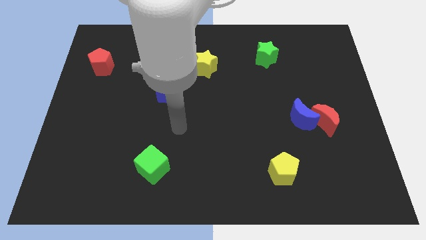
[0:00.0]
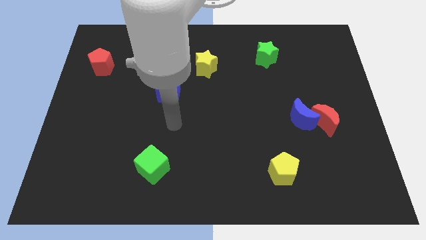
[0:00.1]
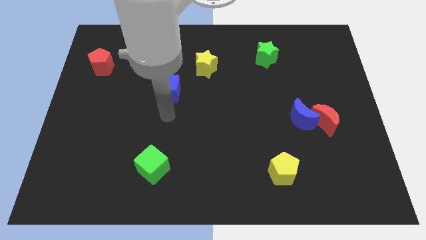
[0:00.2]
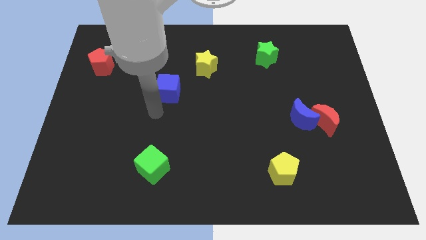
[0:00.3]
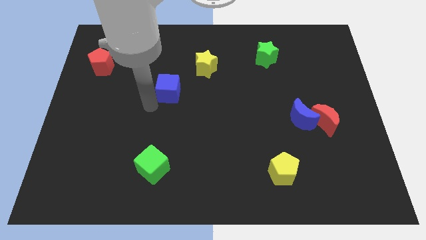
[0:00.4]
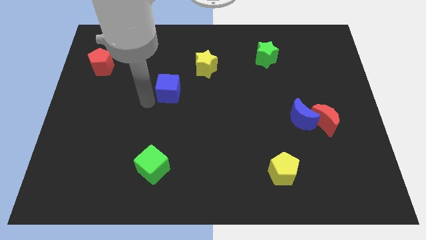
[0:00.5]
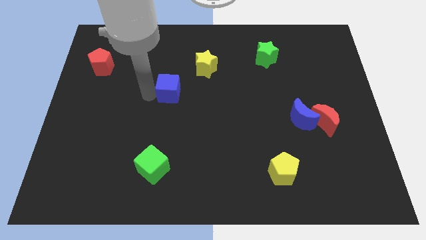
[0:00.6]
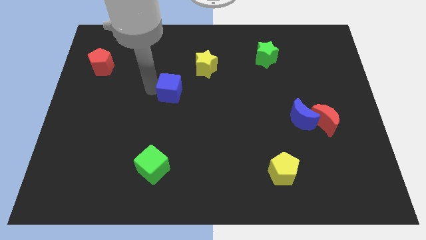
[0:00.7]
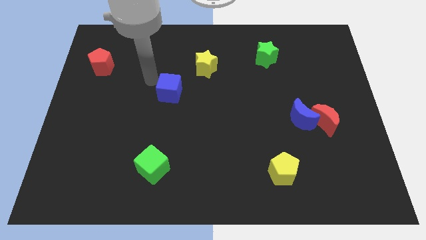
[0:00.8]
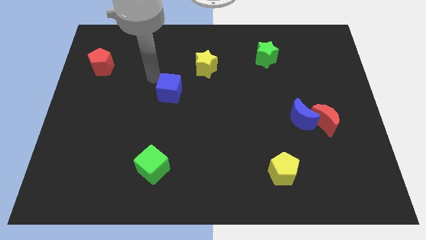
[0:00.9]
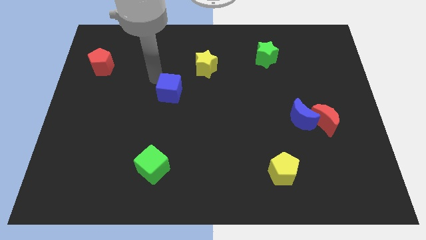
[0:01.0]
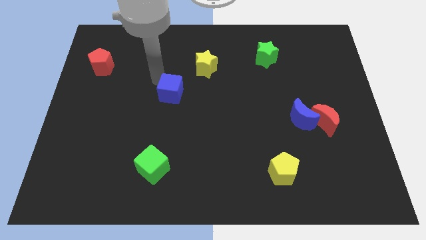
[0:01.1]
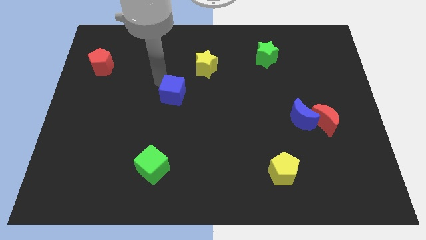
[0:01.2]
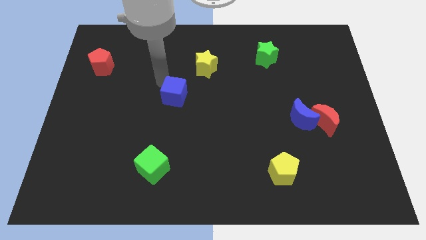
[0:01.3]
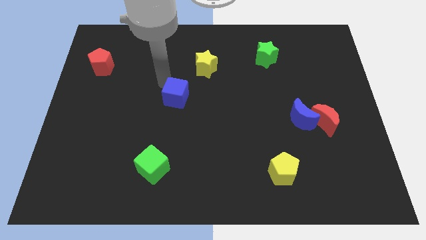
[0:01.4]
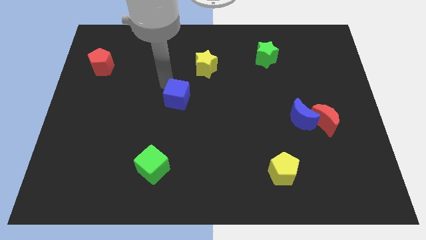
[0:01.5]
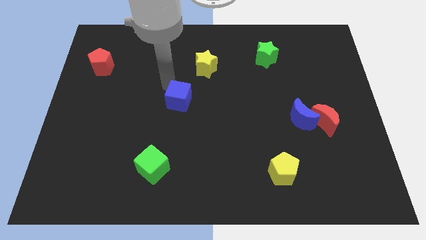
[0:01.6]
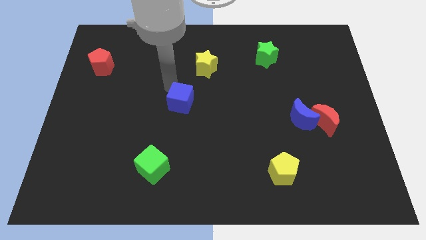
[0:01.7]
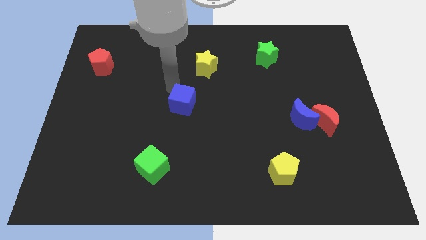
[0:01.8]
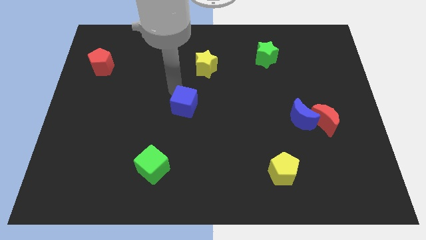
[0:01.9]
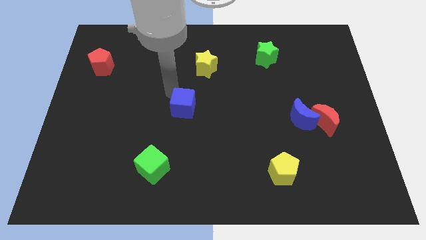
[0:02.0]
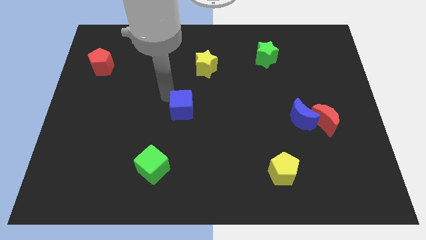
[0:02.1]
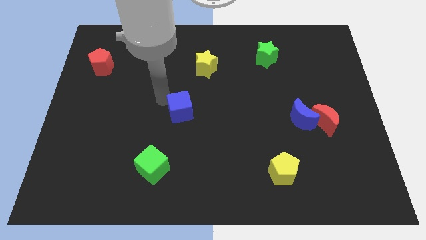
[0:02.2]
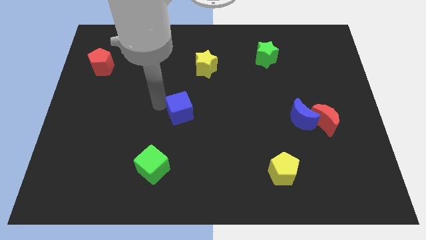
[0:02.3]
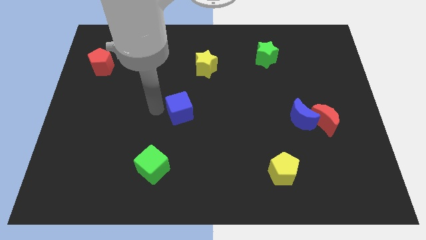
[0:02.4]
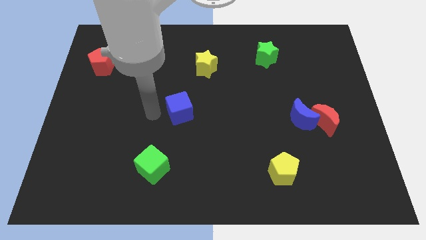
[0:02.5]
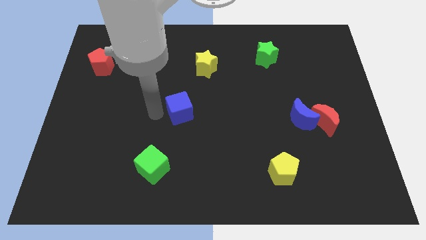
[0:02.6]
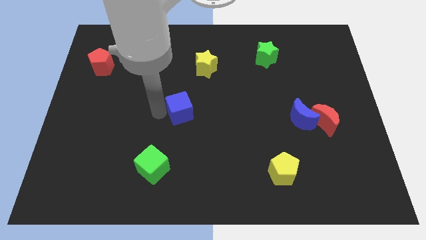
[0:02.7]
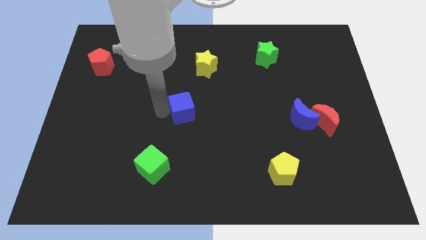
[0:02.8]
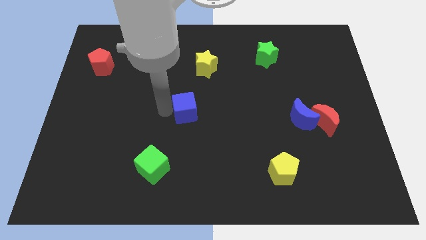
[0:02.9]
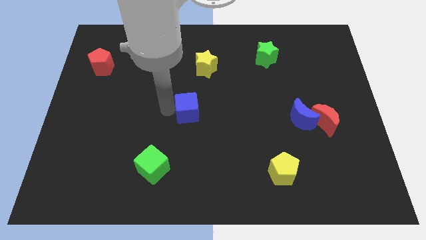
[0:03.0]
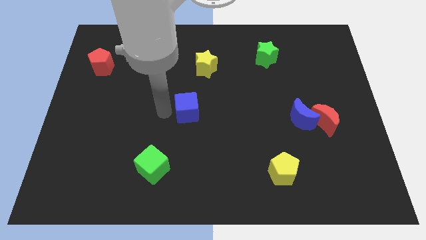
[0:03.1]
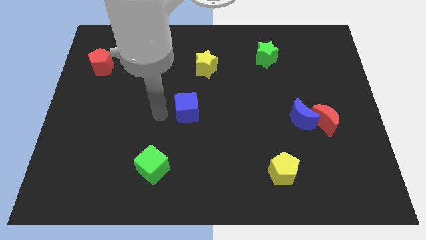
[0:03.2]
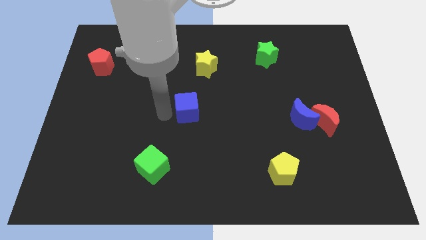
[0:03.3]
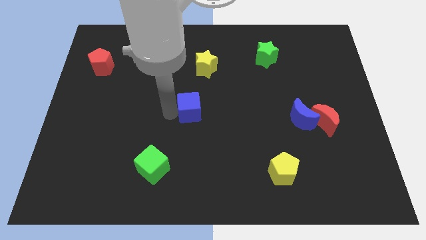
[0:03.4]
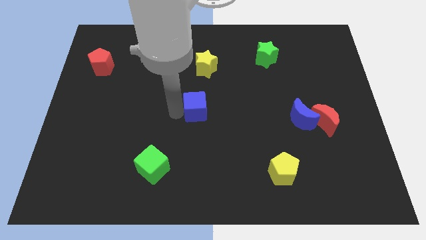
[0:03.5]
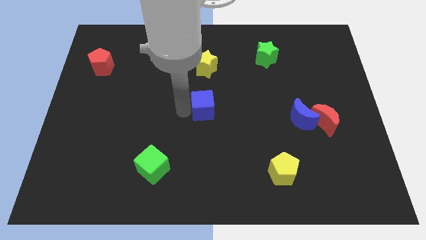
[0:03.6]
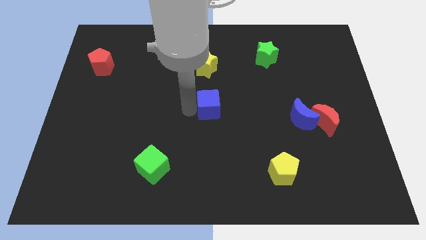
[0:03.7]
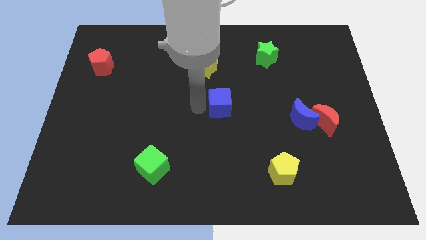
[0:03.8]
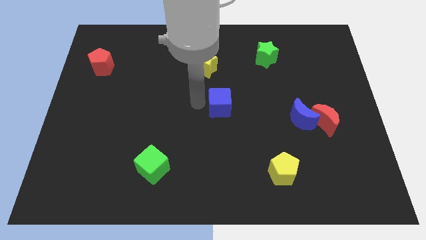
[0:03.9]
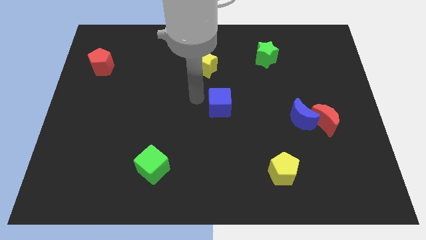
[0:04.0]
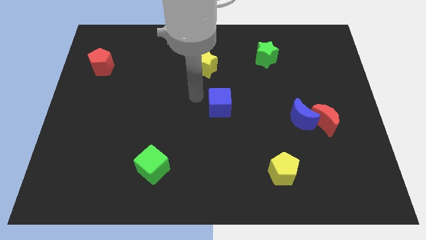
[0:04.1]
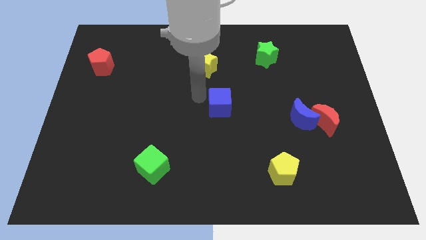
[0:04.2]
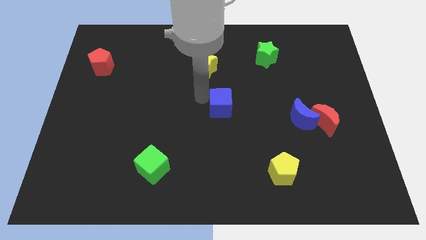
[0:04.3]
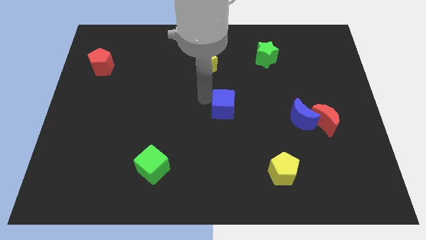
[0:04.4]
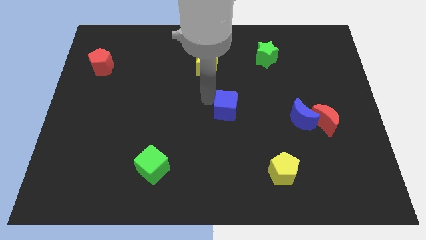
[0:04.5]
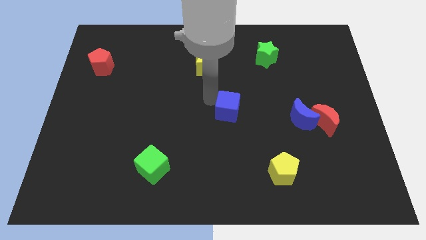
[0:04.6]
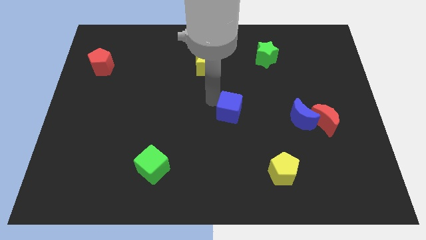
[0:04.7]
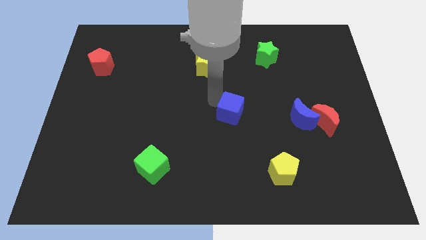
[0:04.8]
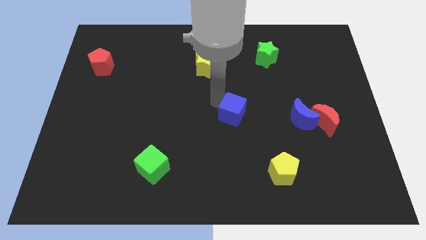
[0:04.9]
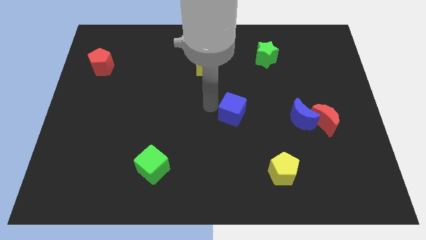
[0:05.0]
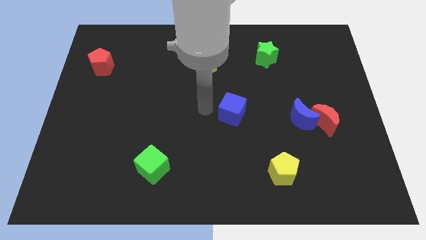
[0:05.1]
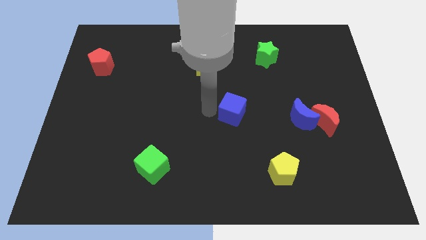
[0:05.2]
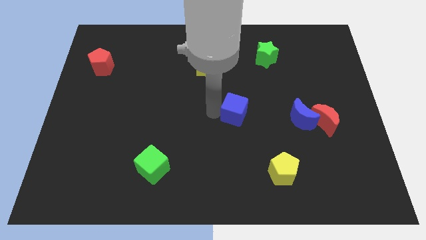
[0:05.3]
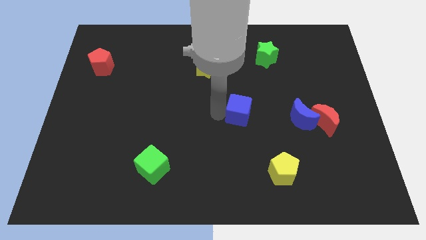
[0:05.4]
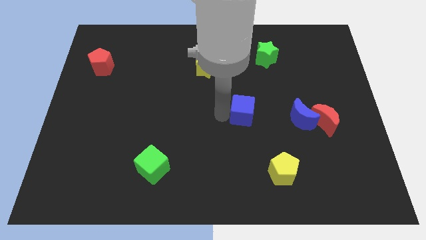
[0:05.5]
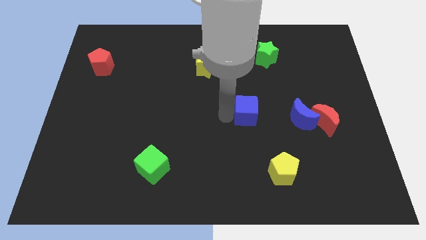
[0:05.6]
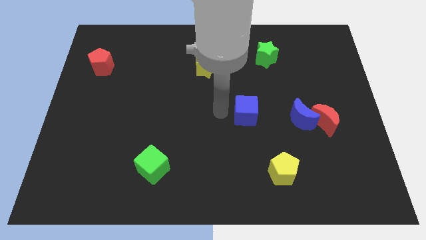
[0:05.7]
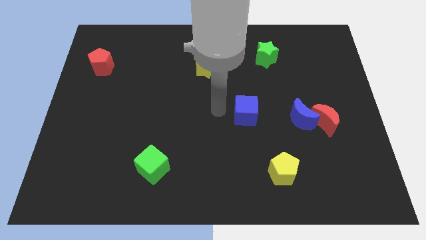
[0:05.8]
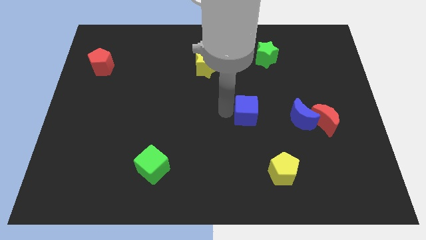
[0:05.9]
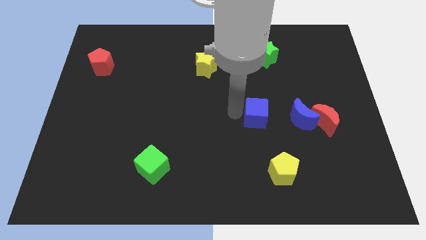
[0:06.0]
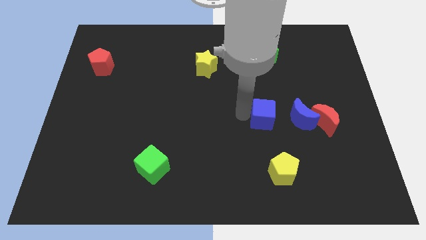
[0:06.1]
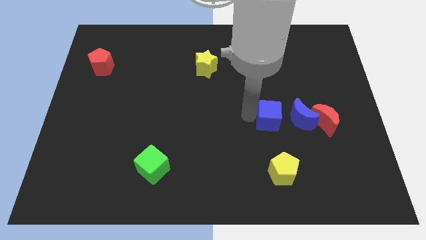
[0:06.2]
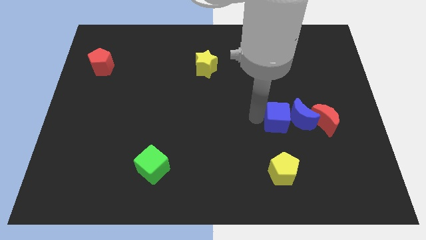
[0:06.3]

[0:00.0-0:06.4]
put the blue cube towards the blue moon

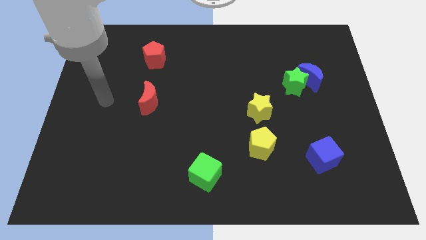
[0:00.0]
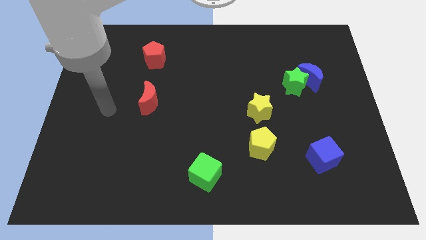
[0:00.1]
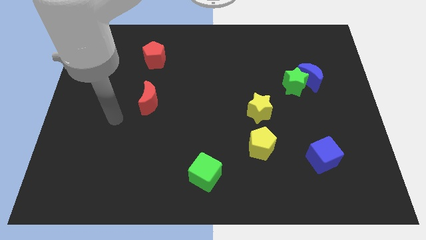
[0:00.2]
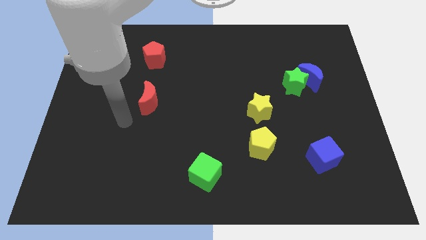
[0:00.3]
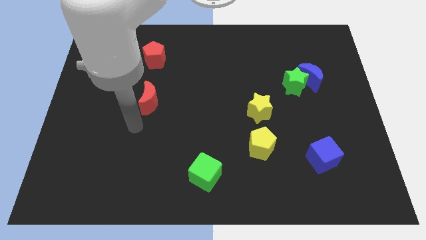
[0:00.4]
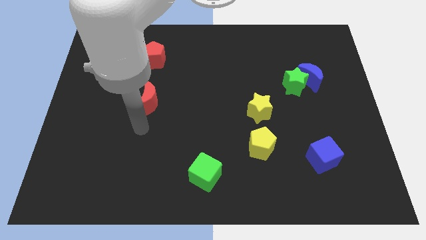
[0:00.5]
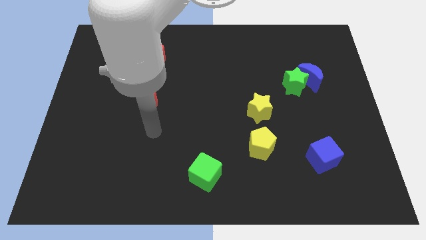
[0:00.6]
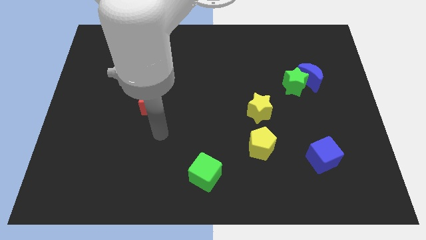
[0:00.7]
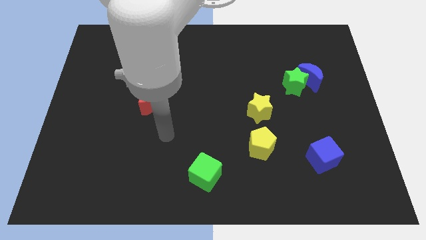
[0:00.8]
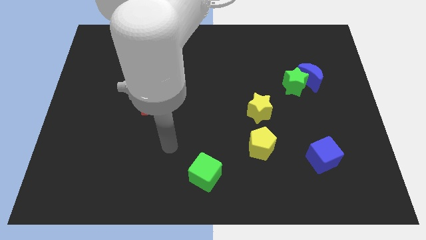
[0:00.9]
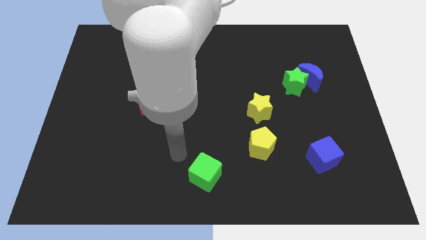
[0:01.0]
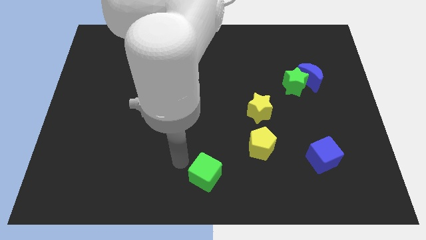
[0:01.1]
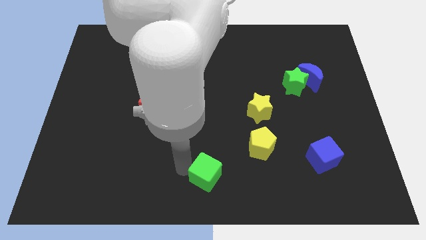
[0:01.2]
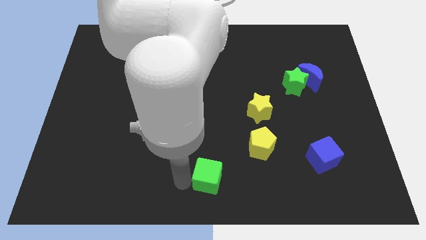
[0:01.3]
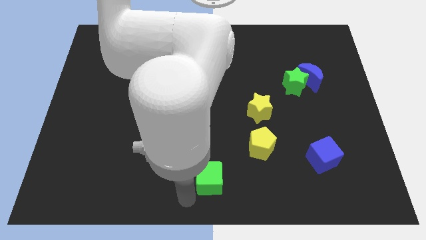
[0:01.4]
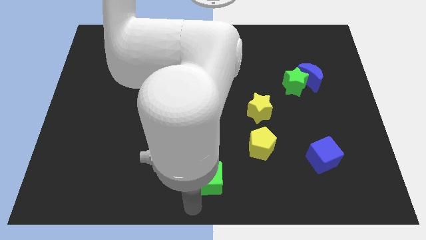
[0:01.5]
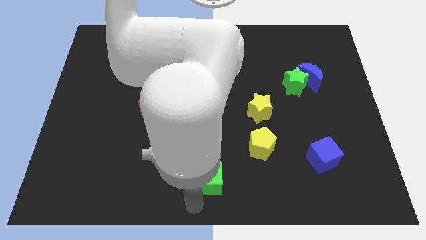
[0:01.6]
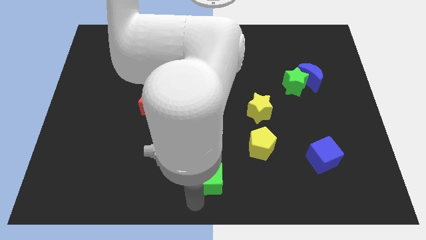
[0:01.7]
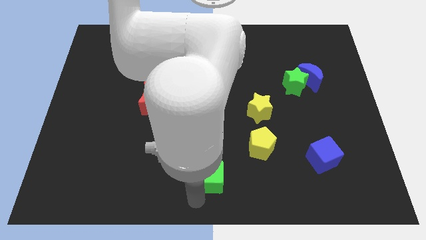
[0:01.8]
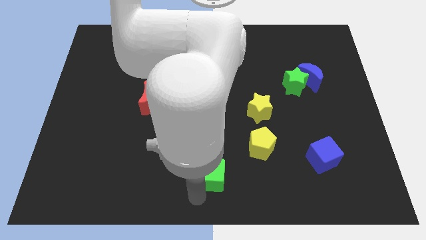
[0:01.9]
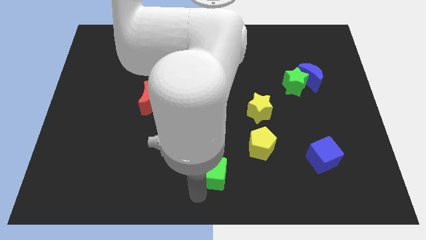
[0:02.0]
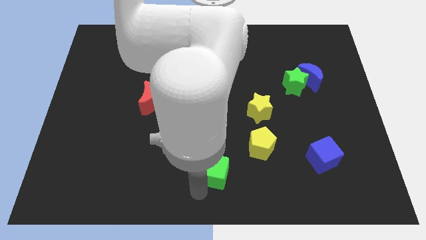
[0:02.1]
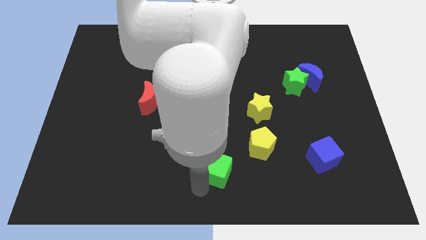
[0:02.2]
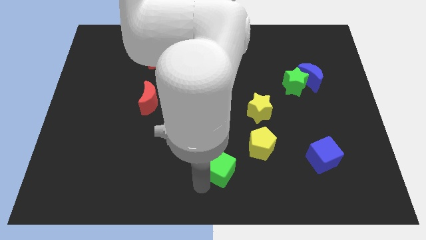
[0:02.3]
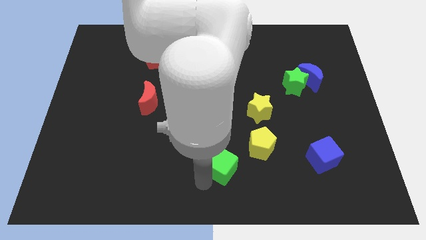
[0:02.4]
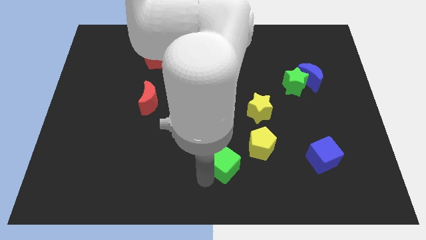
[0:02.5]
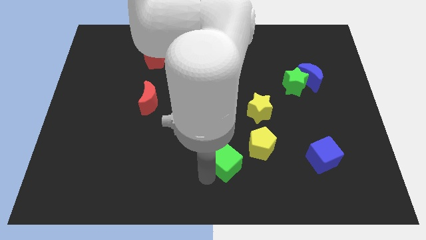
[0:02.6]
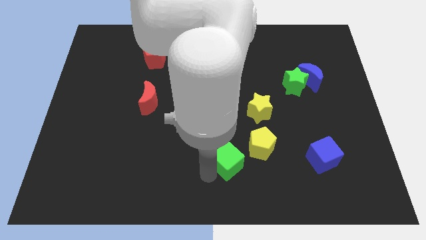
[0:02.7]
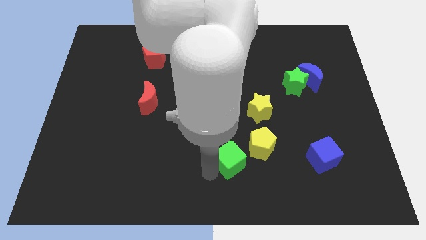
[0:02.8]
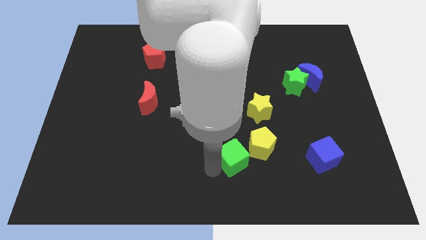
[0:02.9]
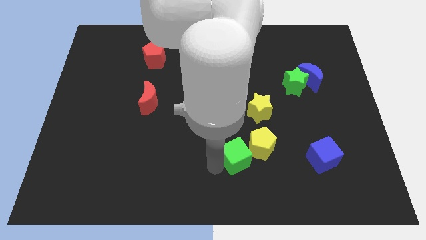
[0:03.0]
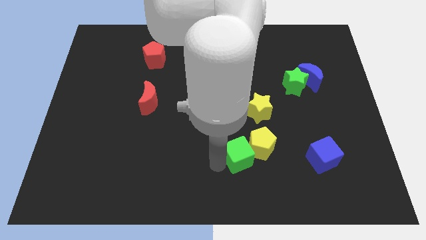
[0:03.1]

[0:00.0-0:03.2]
slide the green cube close to the yellow pentagon
